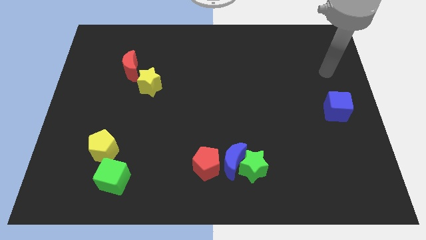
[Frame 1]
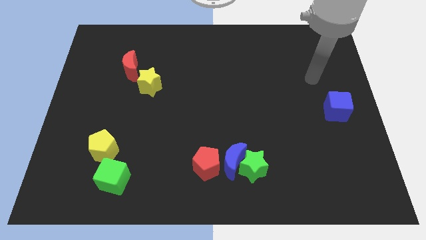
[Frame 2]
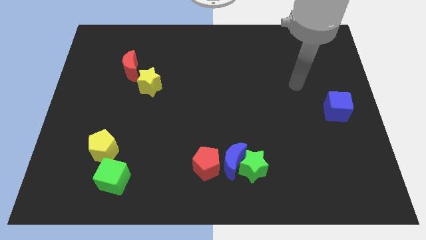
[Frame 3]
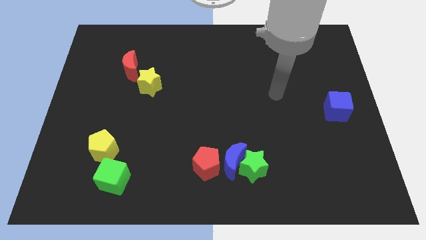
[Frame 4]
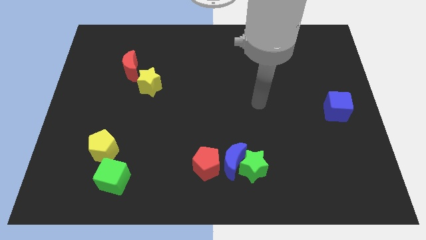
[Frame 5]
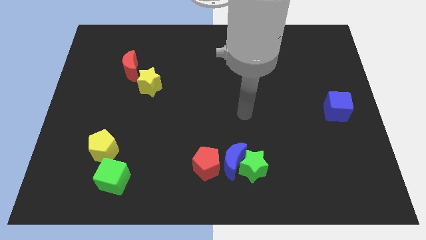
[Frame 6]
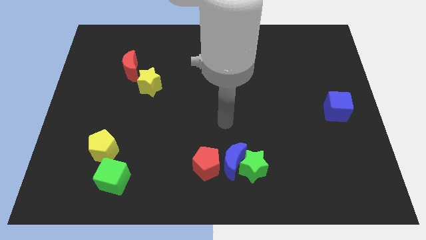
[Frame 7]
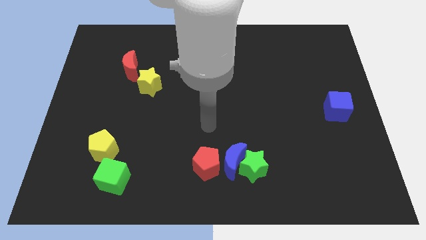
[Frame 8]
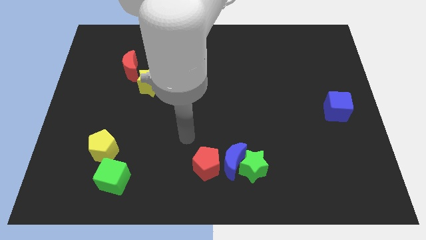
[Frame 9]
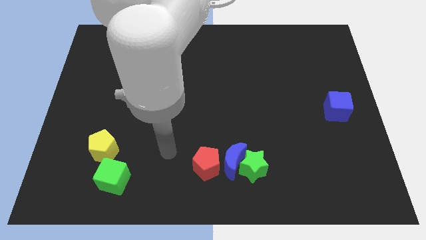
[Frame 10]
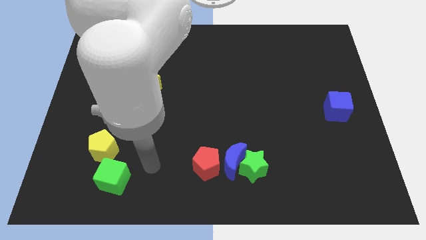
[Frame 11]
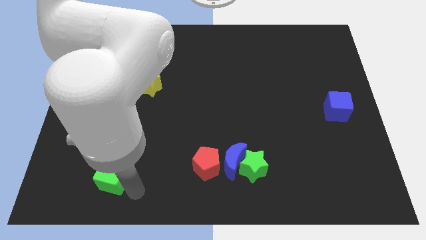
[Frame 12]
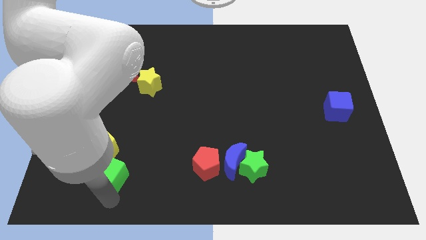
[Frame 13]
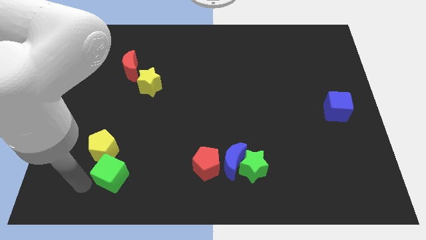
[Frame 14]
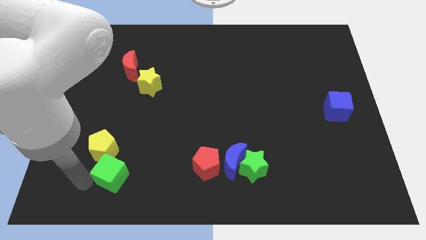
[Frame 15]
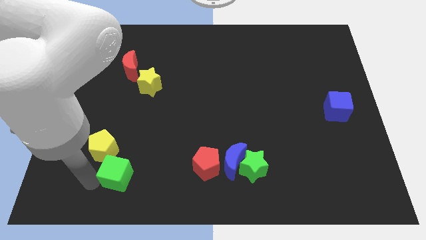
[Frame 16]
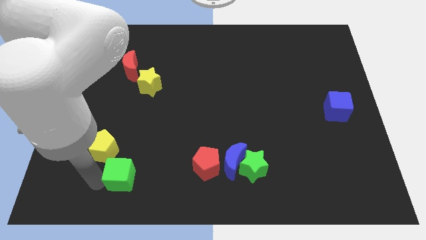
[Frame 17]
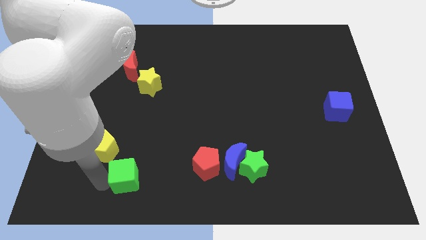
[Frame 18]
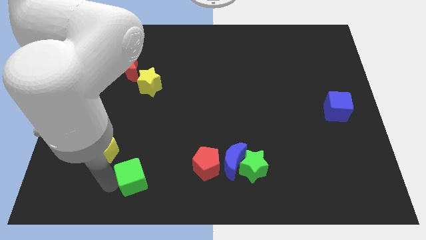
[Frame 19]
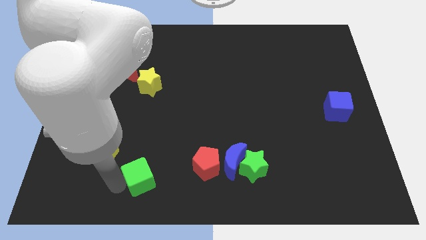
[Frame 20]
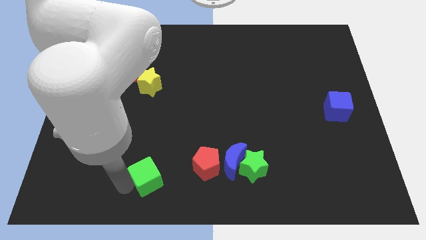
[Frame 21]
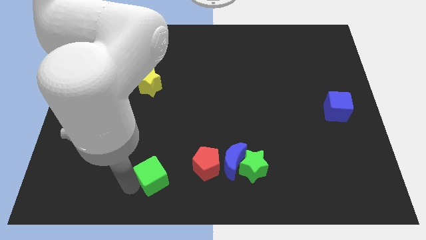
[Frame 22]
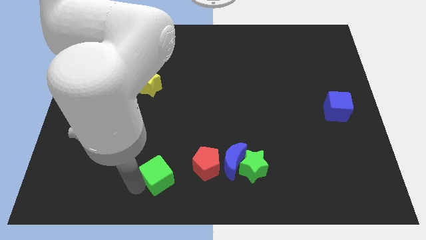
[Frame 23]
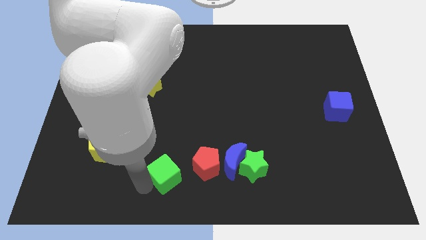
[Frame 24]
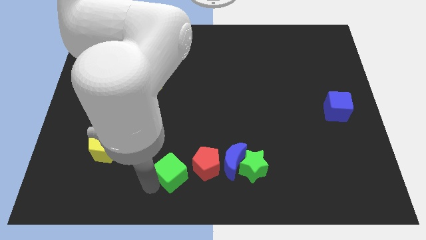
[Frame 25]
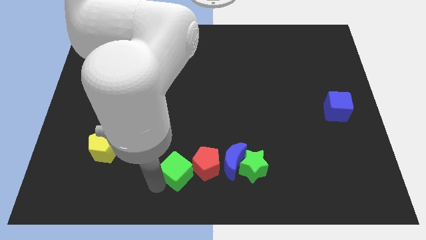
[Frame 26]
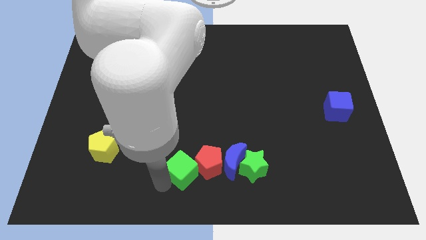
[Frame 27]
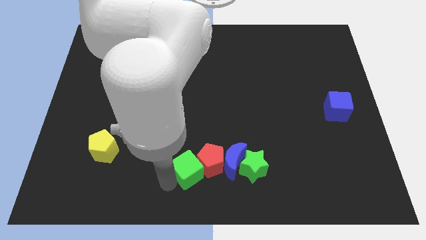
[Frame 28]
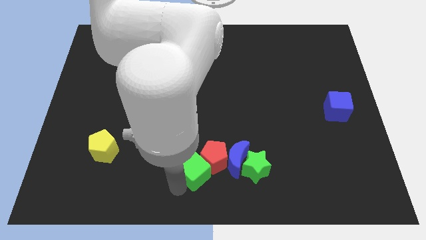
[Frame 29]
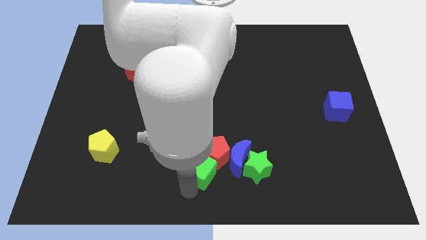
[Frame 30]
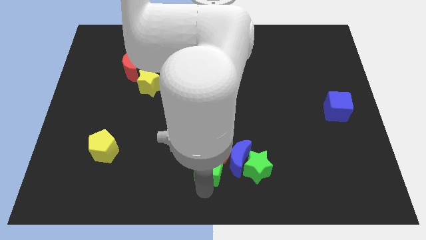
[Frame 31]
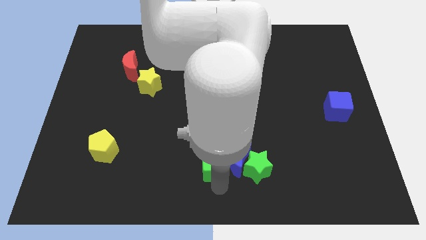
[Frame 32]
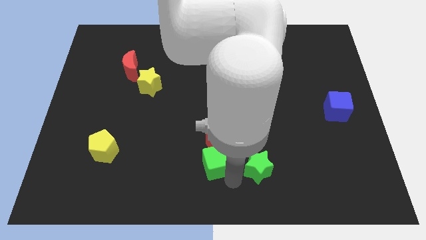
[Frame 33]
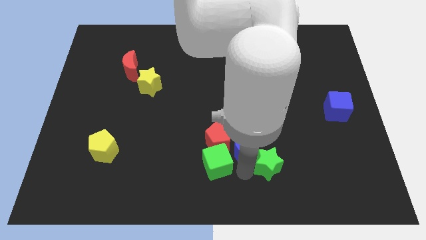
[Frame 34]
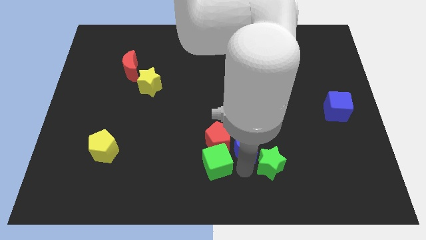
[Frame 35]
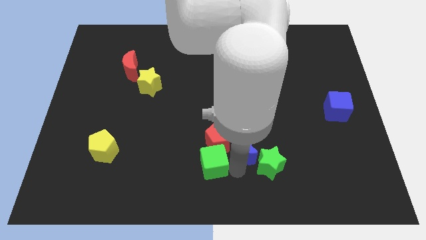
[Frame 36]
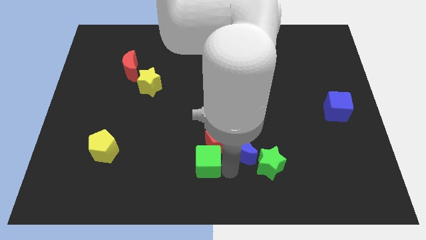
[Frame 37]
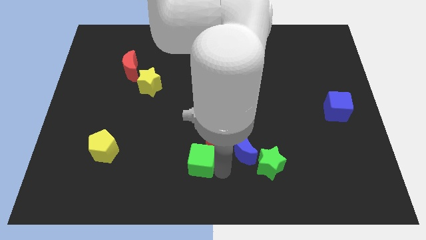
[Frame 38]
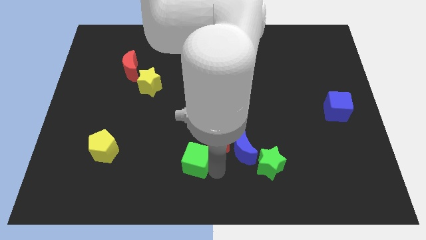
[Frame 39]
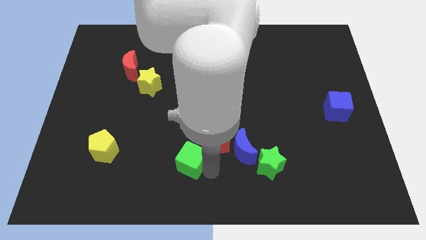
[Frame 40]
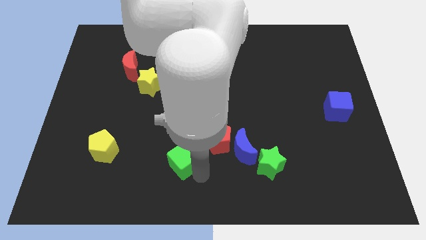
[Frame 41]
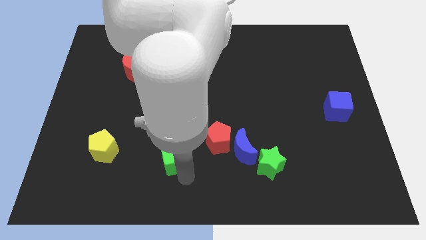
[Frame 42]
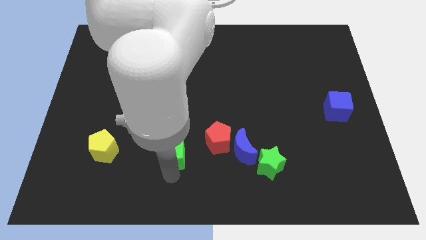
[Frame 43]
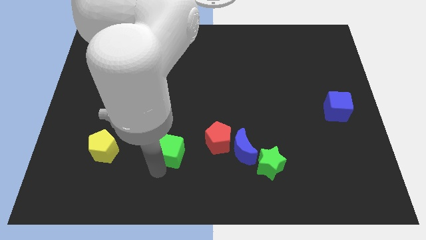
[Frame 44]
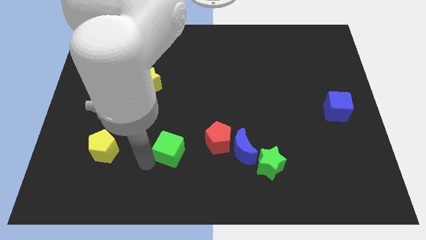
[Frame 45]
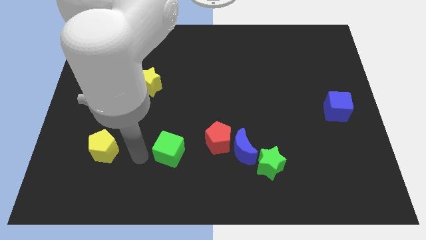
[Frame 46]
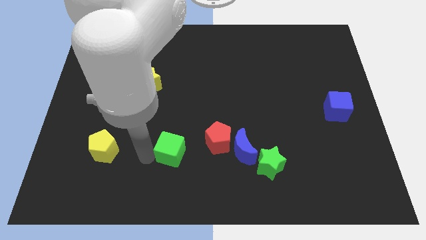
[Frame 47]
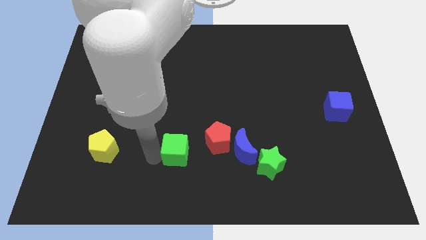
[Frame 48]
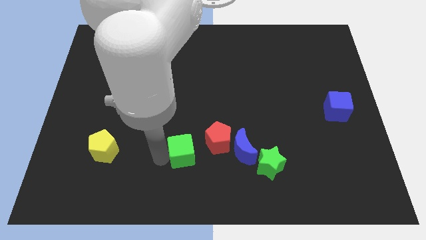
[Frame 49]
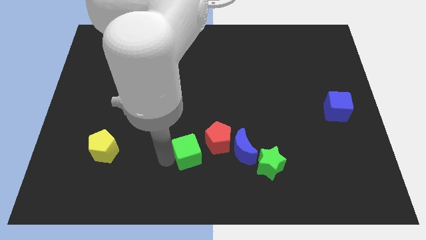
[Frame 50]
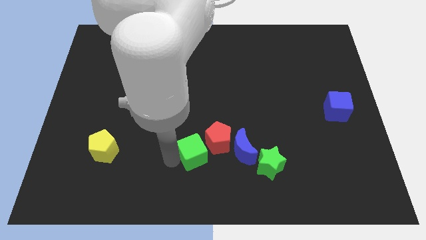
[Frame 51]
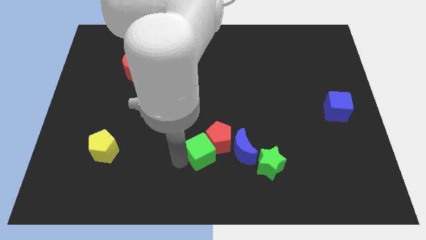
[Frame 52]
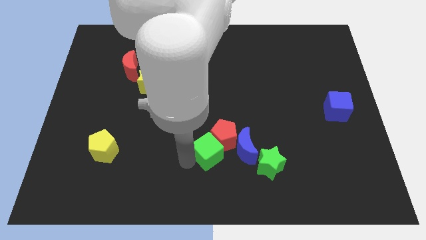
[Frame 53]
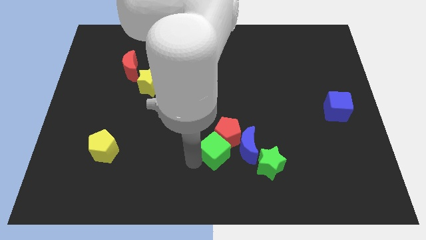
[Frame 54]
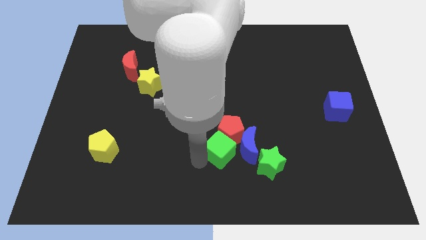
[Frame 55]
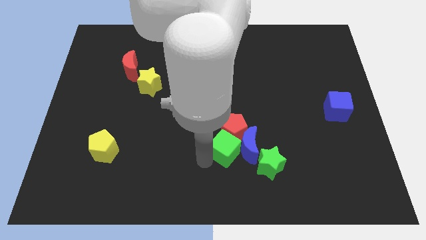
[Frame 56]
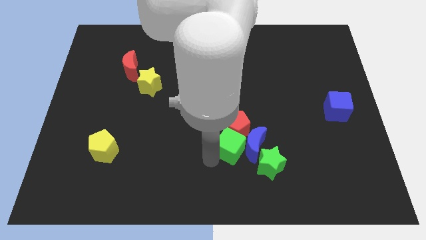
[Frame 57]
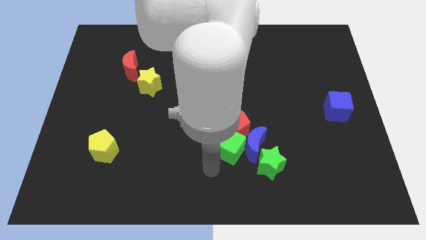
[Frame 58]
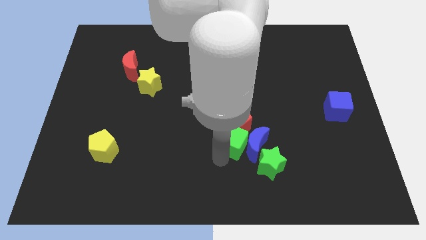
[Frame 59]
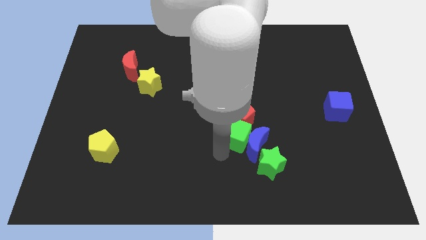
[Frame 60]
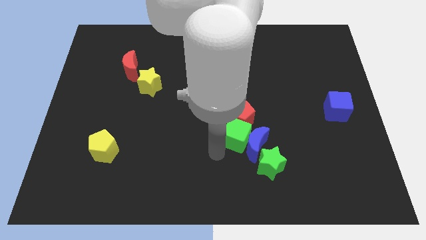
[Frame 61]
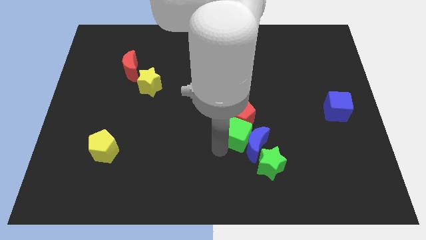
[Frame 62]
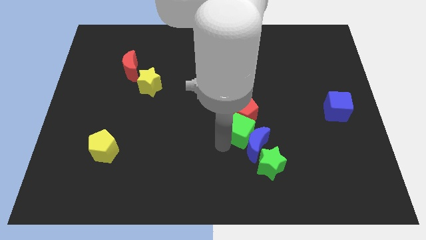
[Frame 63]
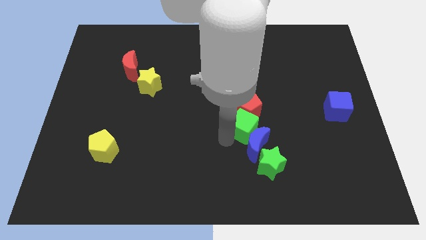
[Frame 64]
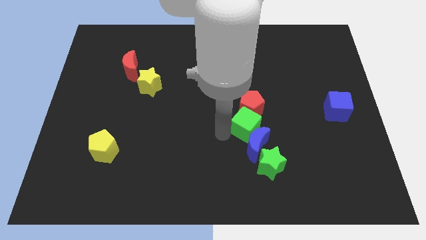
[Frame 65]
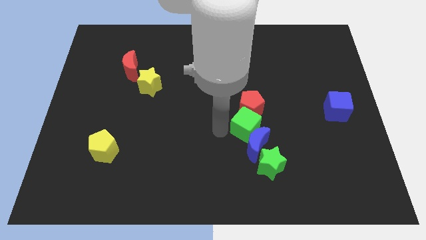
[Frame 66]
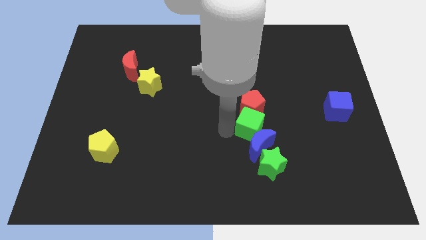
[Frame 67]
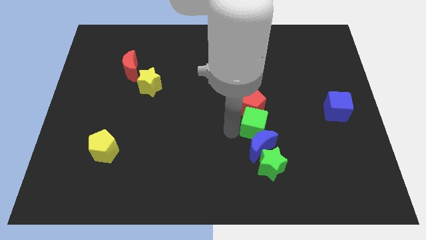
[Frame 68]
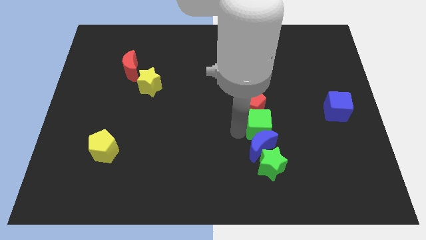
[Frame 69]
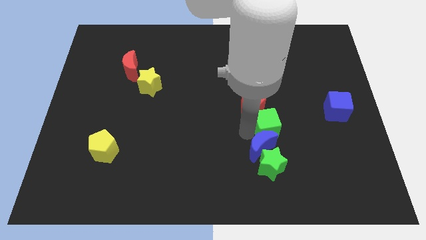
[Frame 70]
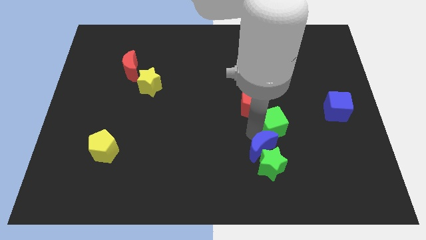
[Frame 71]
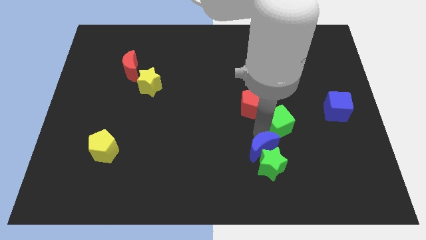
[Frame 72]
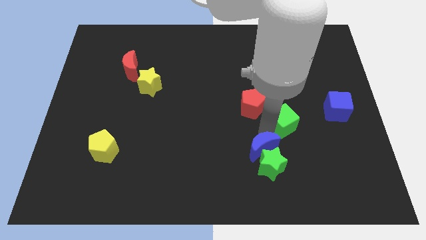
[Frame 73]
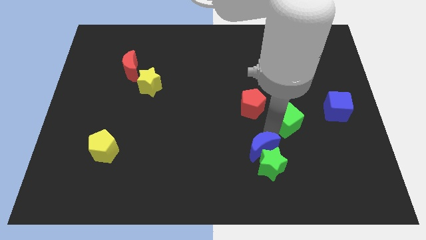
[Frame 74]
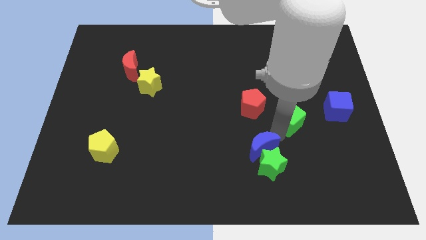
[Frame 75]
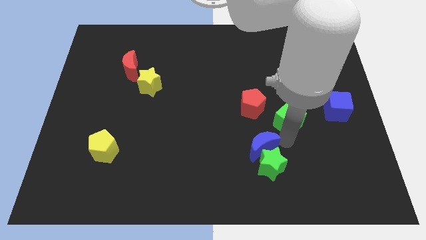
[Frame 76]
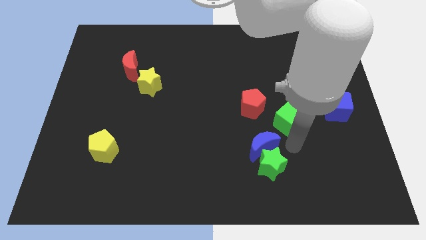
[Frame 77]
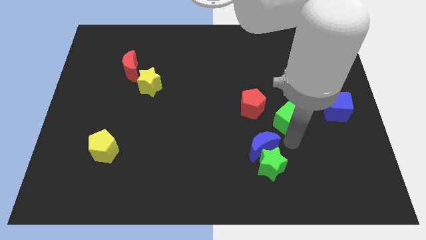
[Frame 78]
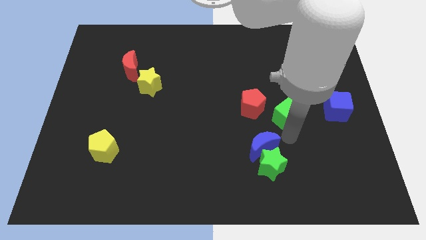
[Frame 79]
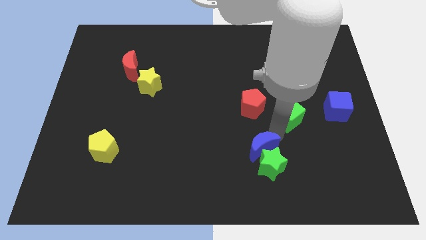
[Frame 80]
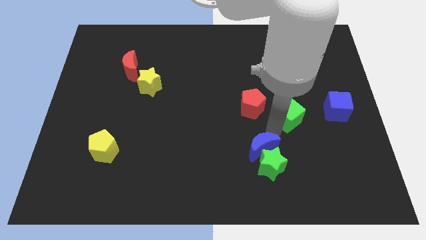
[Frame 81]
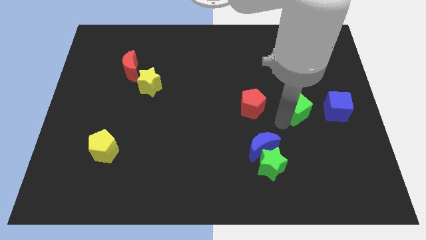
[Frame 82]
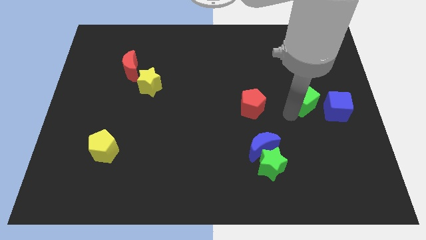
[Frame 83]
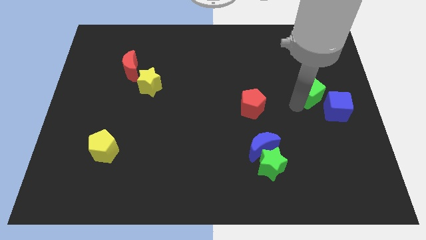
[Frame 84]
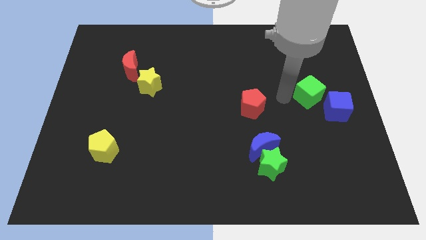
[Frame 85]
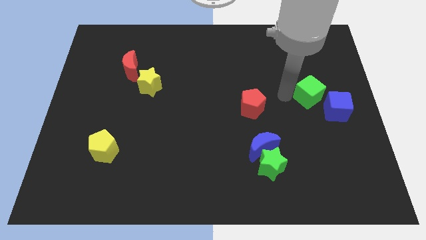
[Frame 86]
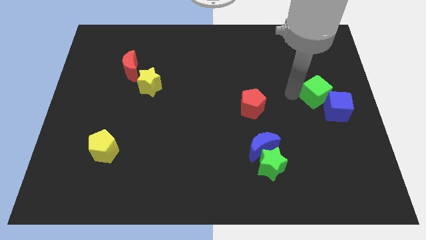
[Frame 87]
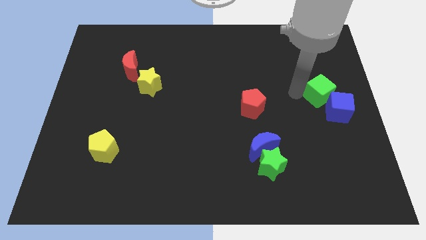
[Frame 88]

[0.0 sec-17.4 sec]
put the green cube to the right side of the board
